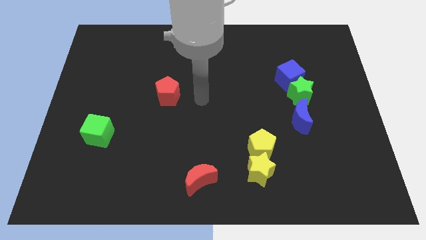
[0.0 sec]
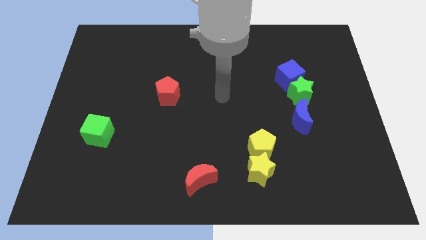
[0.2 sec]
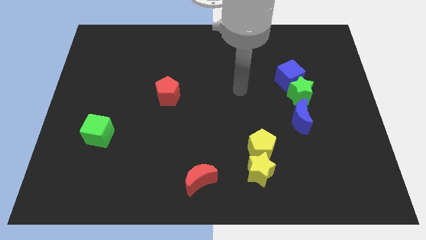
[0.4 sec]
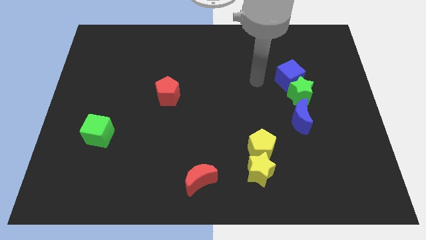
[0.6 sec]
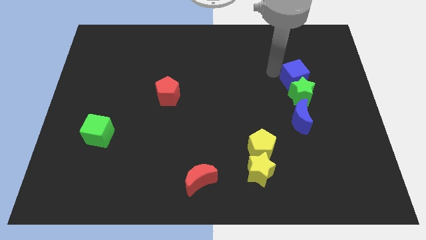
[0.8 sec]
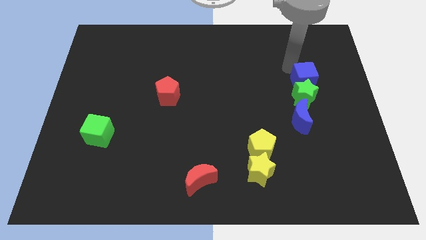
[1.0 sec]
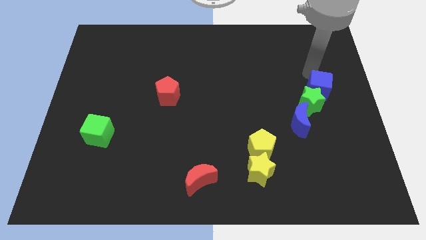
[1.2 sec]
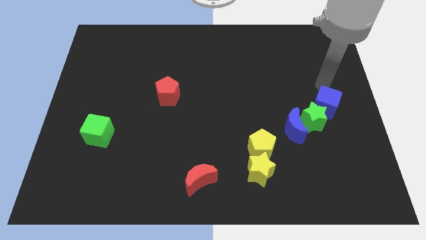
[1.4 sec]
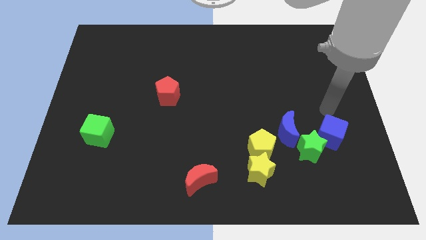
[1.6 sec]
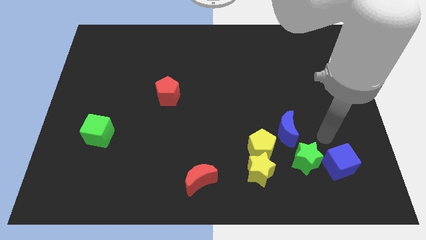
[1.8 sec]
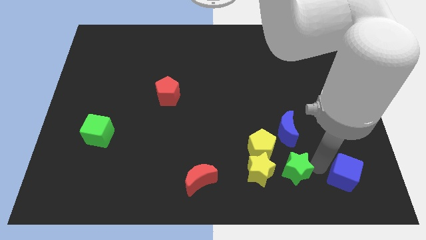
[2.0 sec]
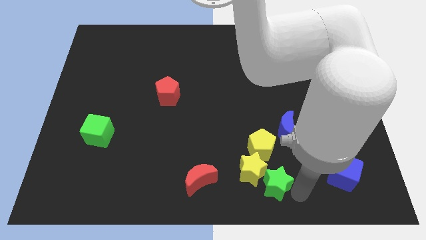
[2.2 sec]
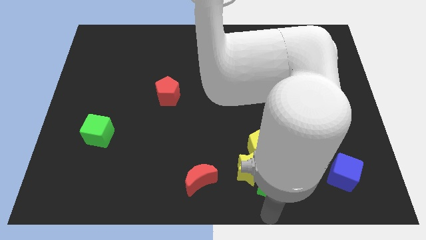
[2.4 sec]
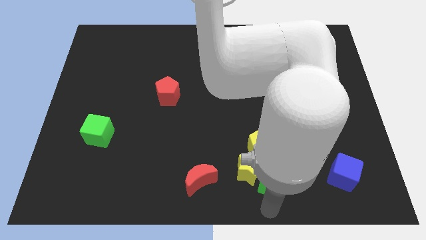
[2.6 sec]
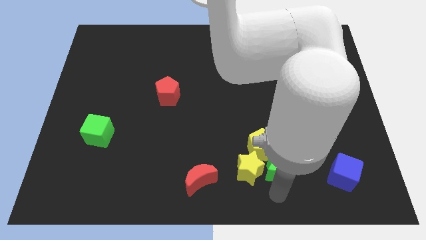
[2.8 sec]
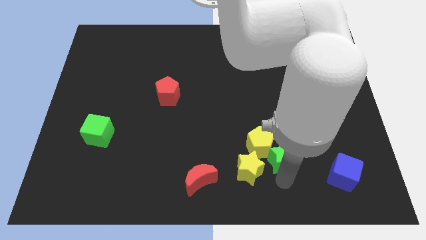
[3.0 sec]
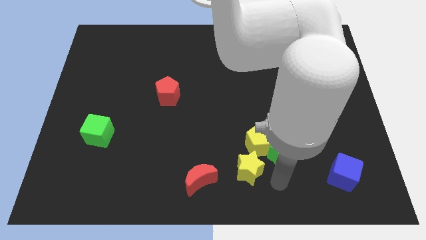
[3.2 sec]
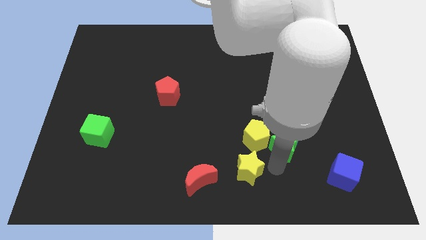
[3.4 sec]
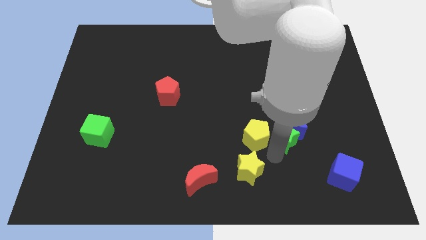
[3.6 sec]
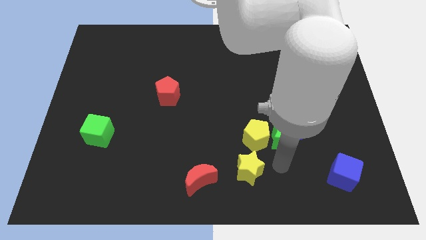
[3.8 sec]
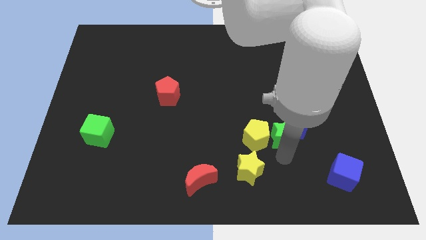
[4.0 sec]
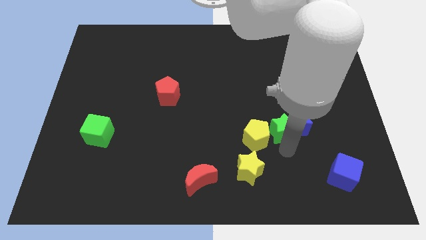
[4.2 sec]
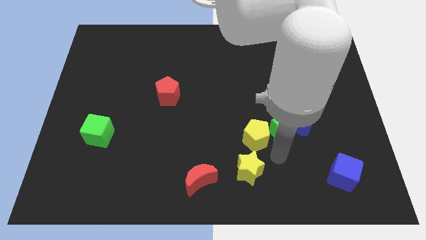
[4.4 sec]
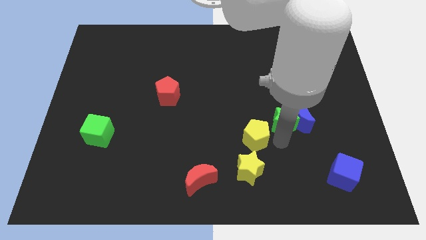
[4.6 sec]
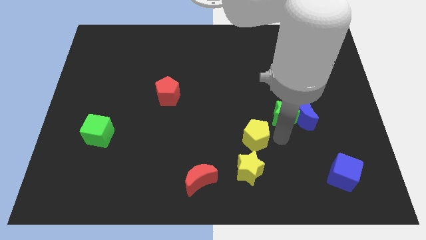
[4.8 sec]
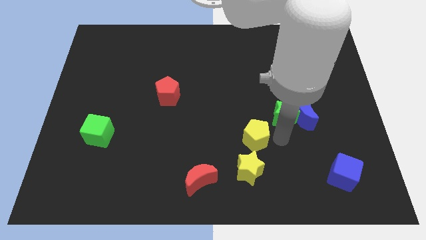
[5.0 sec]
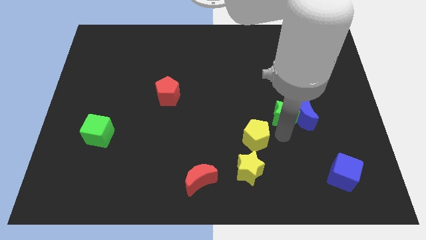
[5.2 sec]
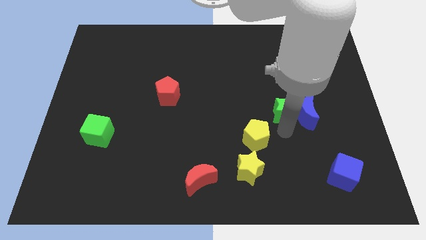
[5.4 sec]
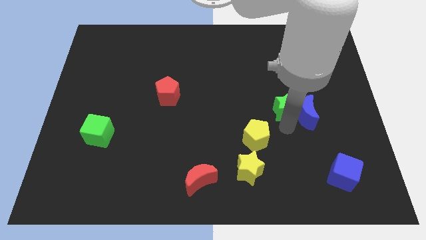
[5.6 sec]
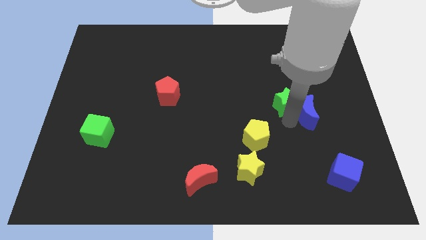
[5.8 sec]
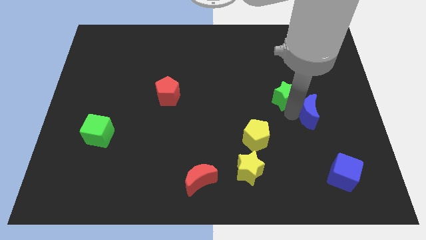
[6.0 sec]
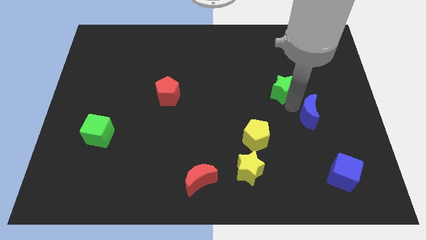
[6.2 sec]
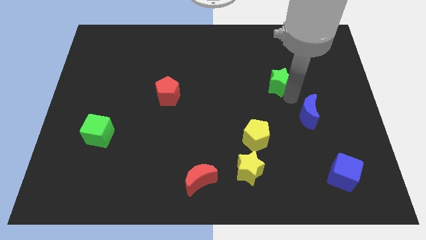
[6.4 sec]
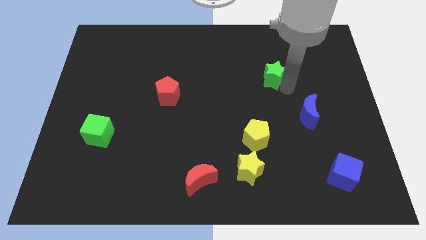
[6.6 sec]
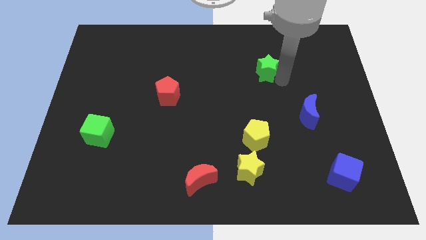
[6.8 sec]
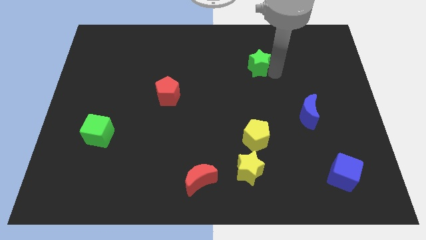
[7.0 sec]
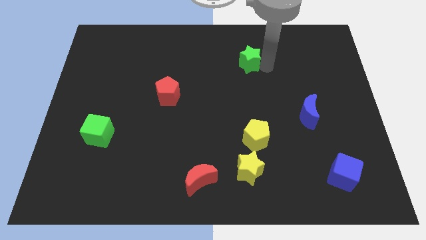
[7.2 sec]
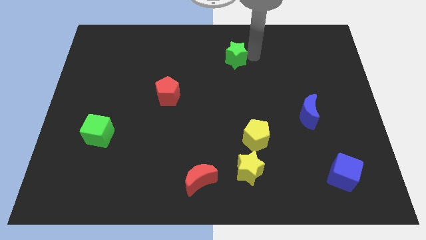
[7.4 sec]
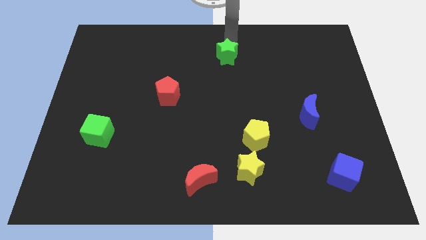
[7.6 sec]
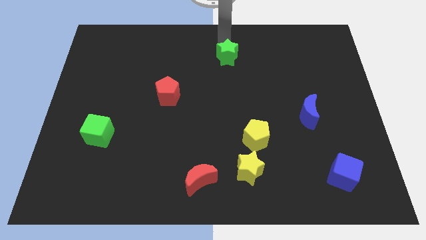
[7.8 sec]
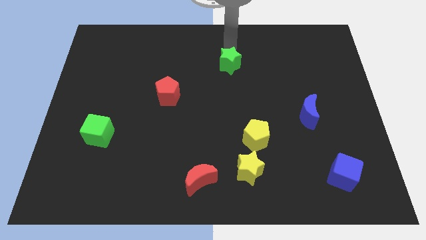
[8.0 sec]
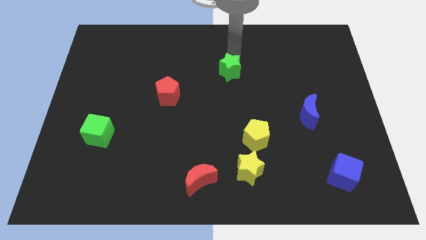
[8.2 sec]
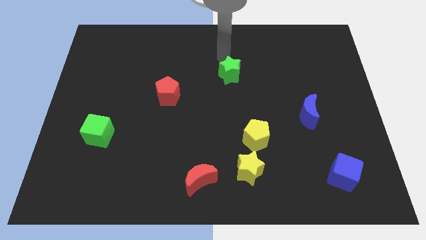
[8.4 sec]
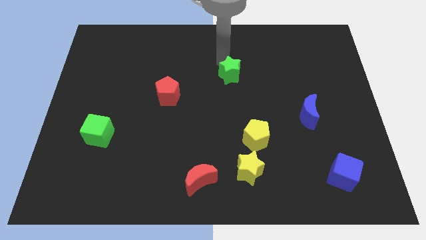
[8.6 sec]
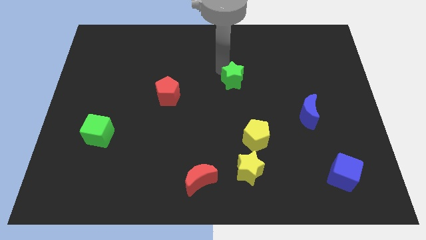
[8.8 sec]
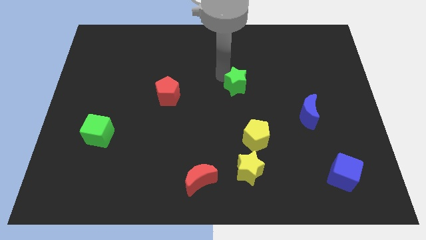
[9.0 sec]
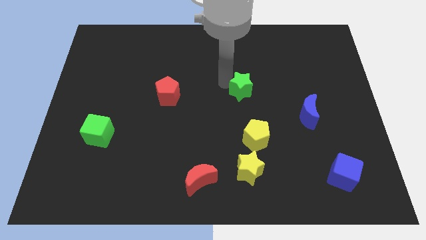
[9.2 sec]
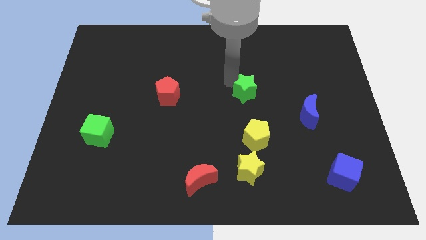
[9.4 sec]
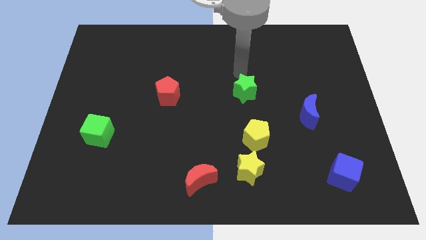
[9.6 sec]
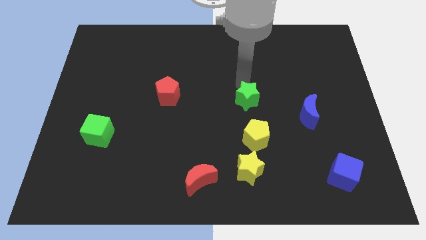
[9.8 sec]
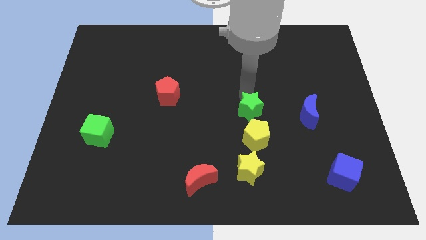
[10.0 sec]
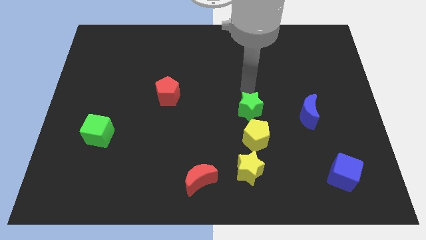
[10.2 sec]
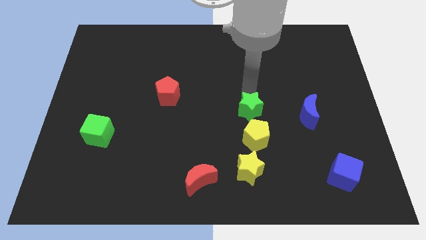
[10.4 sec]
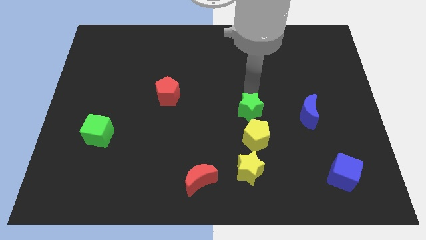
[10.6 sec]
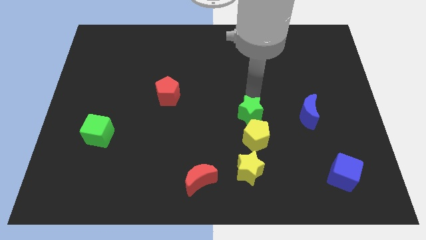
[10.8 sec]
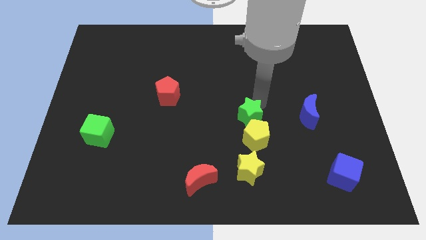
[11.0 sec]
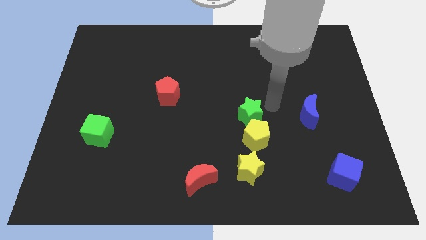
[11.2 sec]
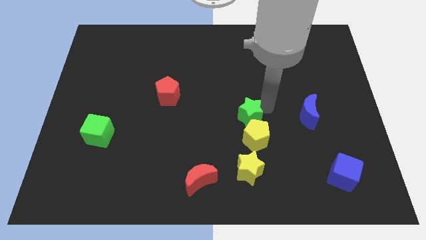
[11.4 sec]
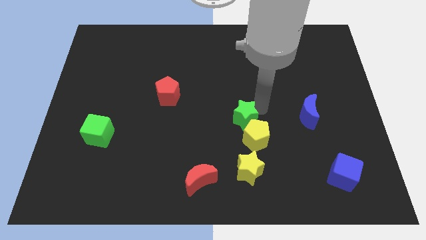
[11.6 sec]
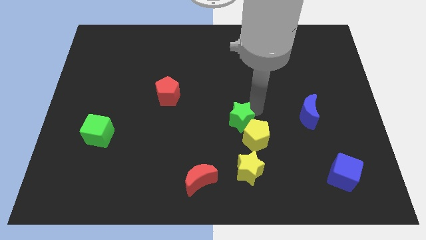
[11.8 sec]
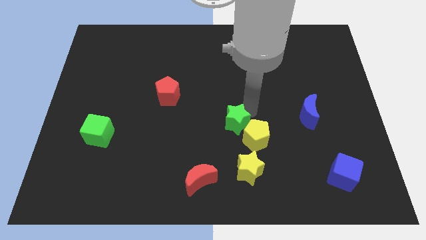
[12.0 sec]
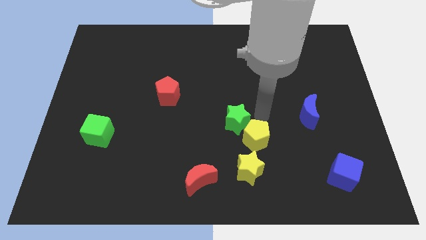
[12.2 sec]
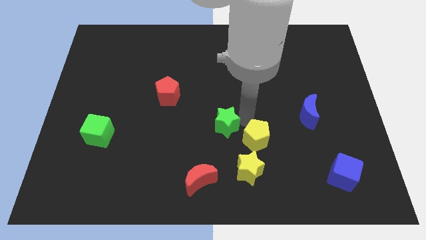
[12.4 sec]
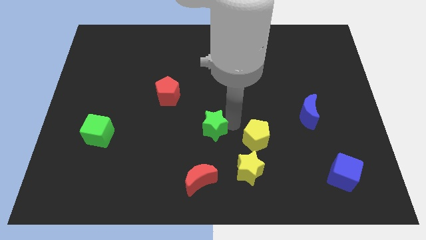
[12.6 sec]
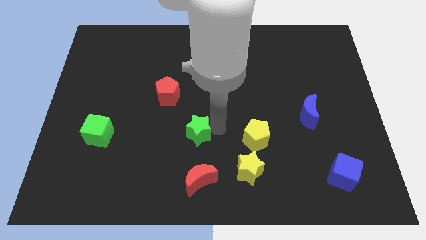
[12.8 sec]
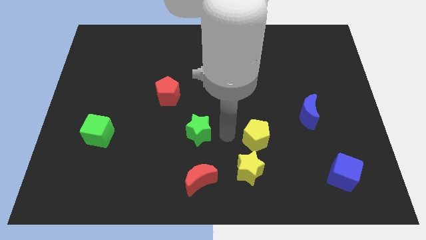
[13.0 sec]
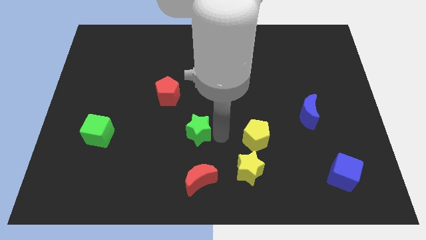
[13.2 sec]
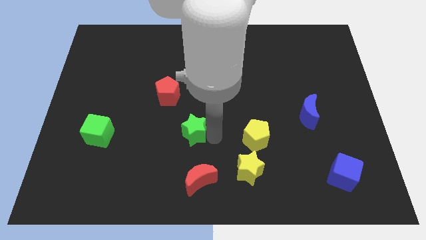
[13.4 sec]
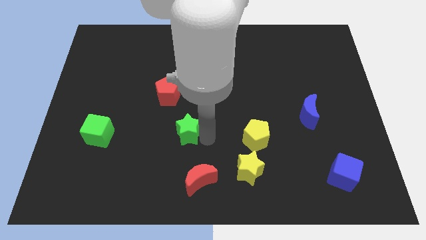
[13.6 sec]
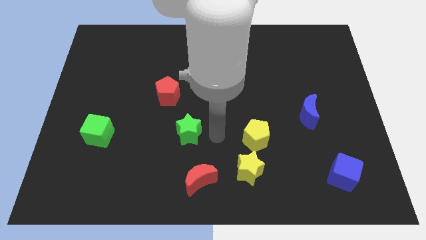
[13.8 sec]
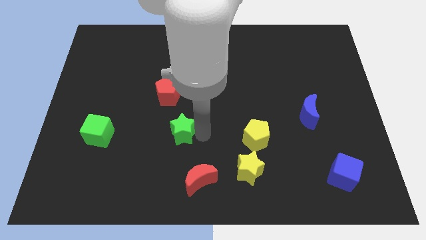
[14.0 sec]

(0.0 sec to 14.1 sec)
push the green star to the bottom side of the red pentagon

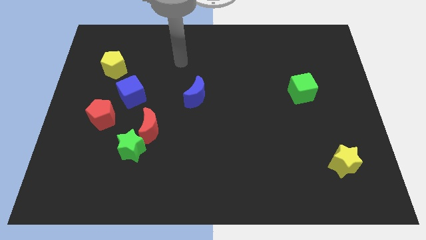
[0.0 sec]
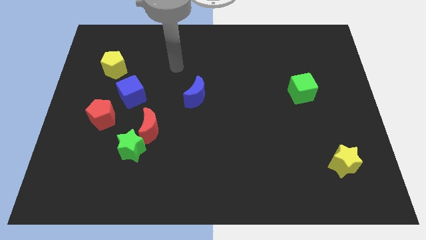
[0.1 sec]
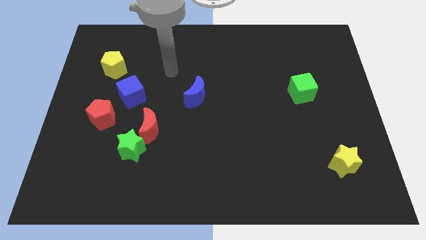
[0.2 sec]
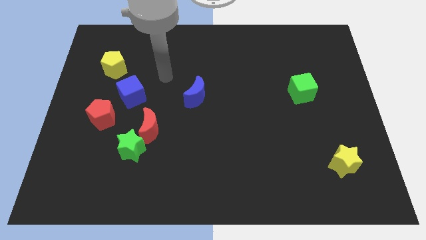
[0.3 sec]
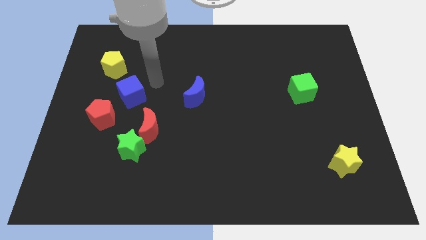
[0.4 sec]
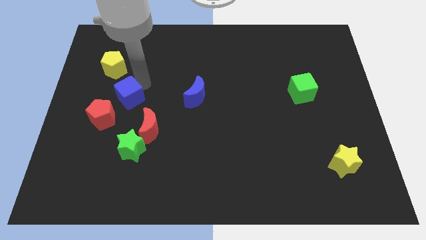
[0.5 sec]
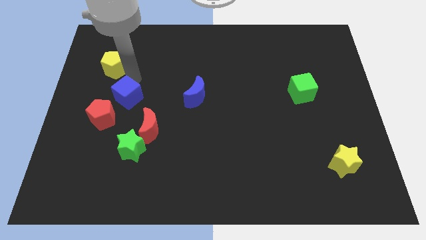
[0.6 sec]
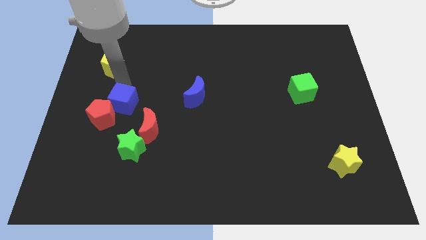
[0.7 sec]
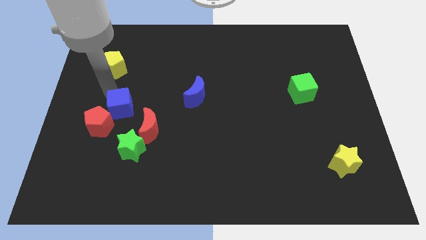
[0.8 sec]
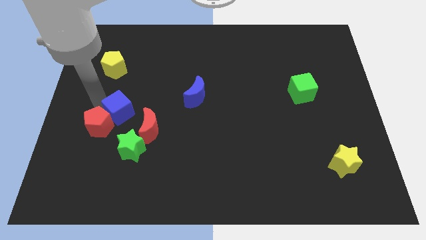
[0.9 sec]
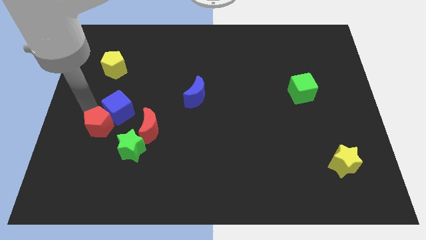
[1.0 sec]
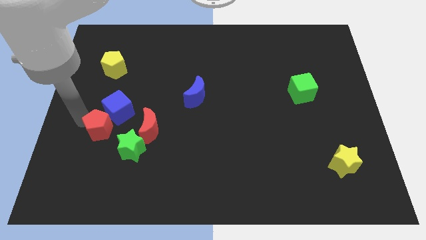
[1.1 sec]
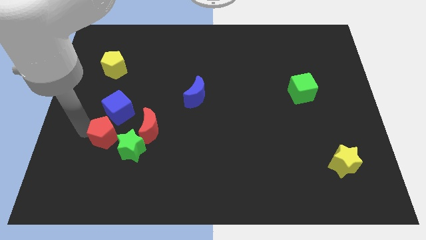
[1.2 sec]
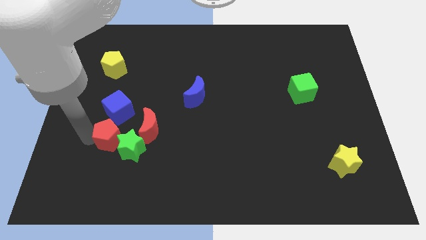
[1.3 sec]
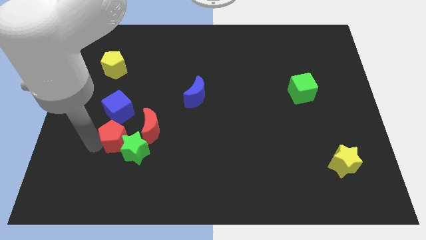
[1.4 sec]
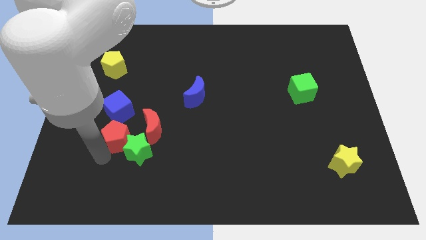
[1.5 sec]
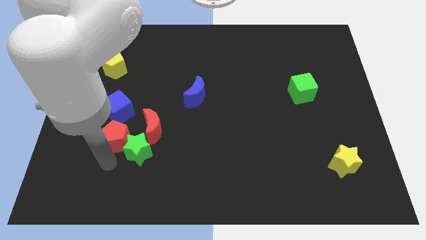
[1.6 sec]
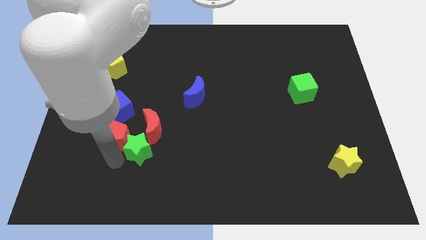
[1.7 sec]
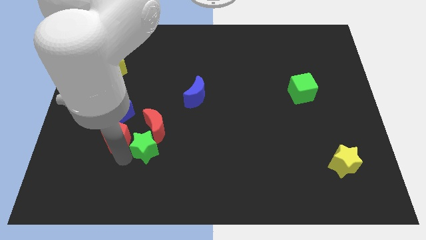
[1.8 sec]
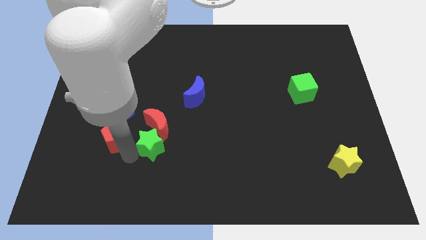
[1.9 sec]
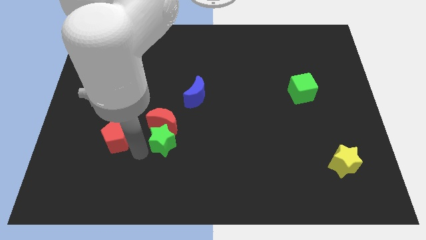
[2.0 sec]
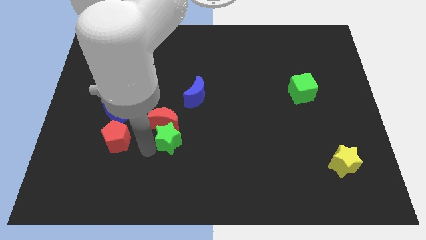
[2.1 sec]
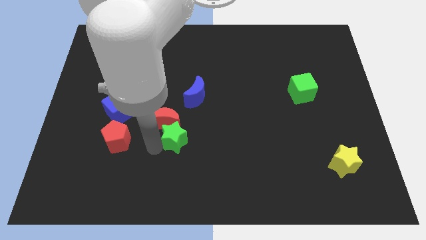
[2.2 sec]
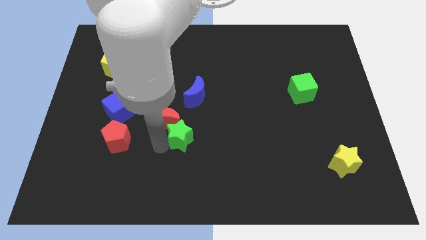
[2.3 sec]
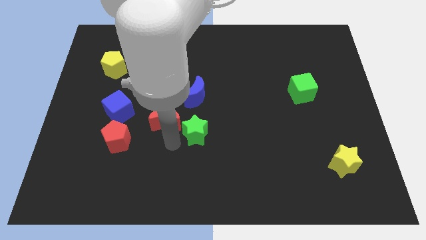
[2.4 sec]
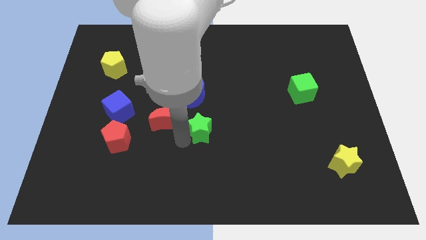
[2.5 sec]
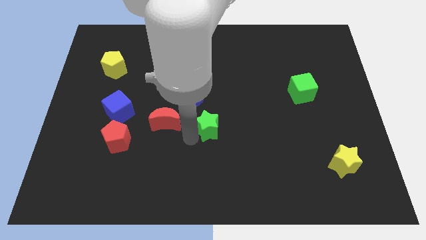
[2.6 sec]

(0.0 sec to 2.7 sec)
slide the green star to the bottom right of the blue moon
